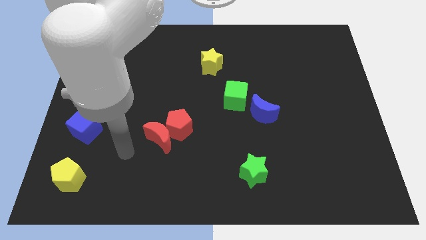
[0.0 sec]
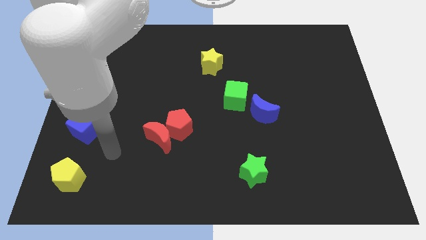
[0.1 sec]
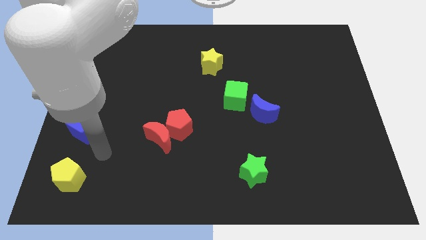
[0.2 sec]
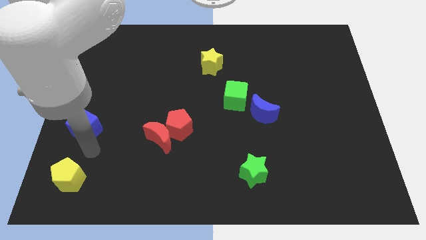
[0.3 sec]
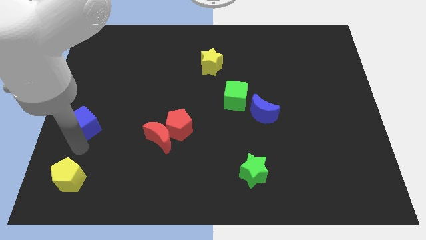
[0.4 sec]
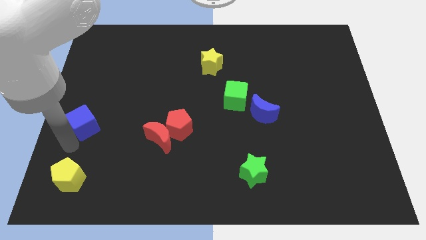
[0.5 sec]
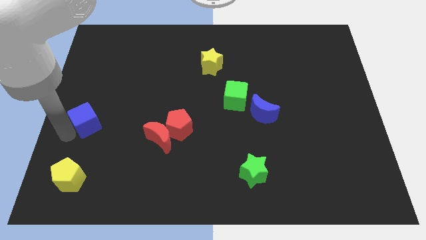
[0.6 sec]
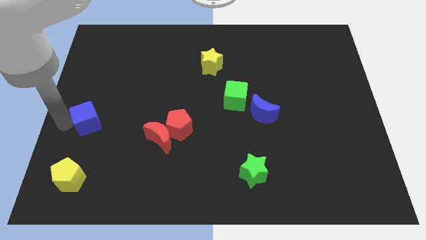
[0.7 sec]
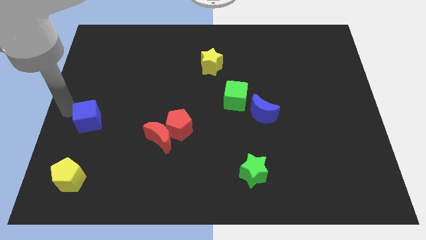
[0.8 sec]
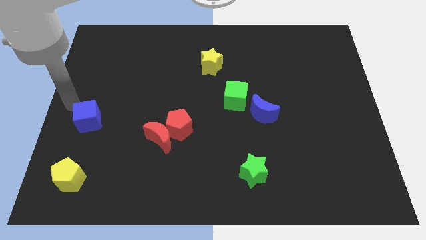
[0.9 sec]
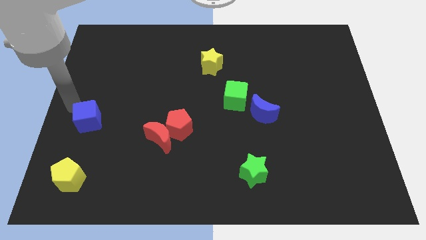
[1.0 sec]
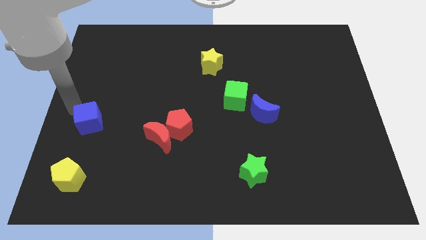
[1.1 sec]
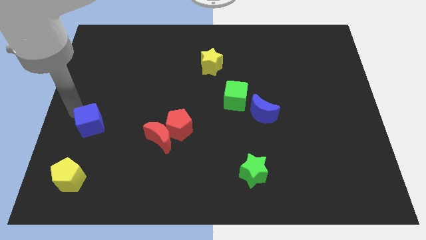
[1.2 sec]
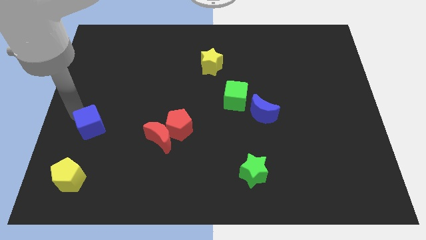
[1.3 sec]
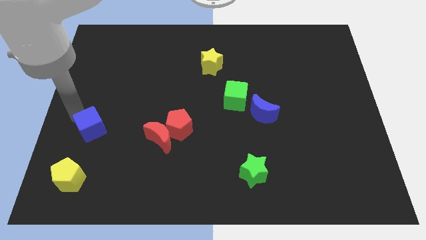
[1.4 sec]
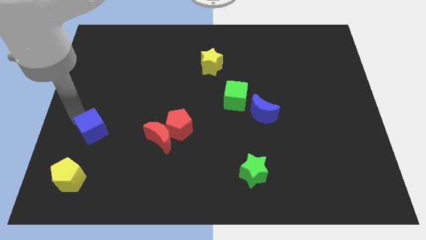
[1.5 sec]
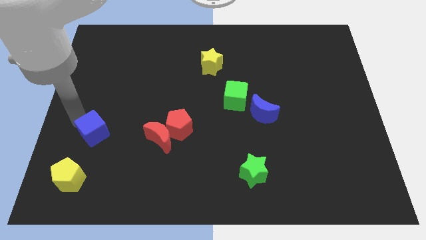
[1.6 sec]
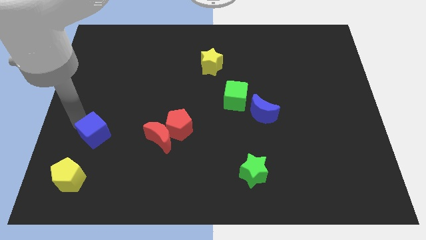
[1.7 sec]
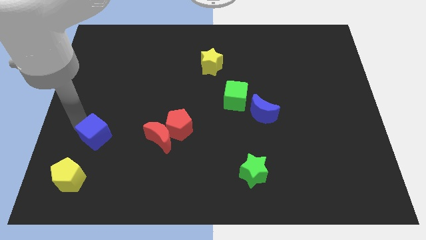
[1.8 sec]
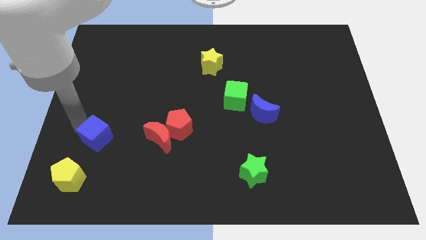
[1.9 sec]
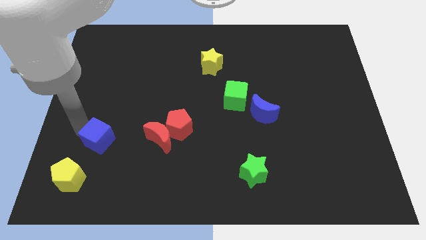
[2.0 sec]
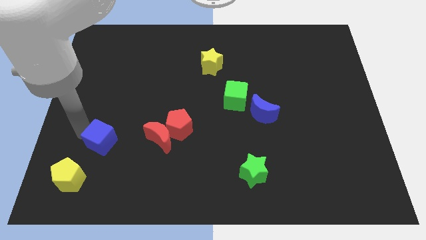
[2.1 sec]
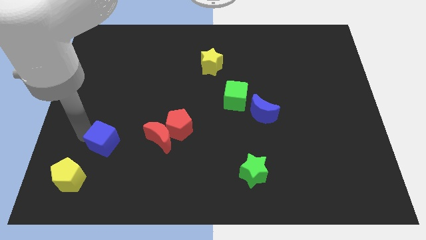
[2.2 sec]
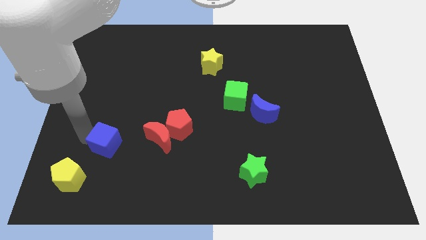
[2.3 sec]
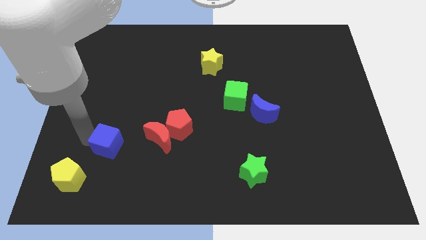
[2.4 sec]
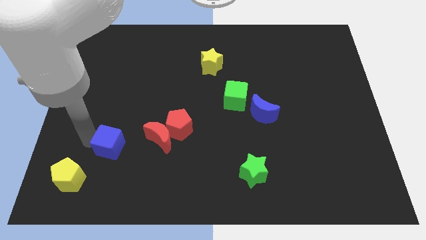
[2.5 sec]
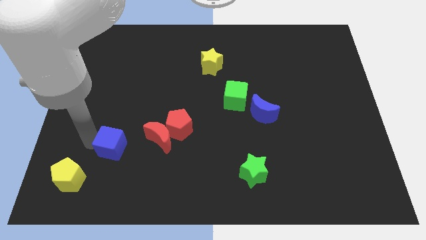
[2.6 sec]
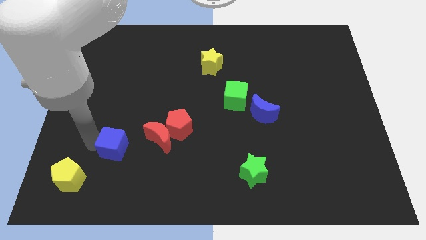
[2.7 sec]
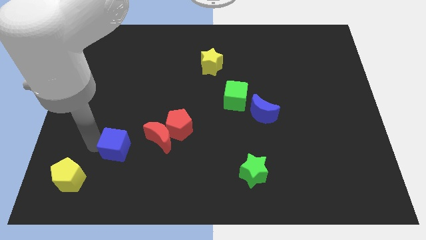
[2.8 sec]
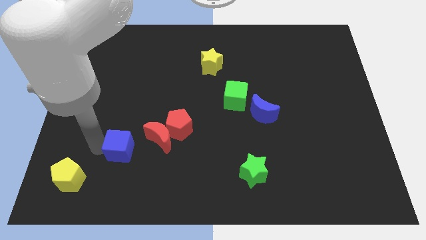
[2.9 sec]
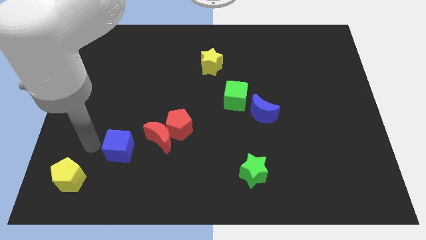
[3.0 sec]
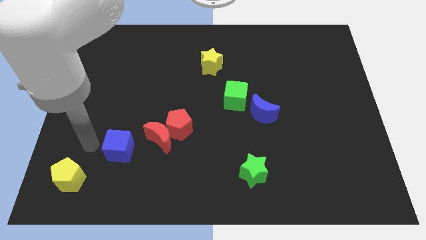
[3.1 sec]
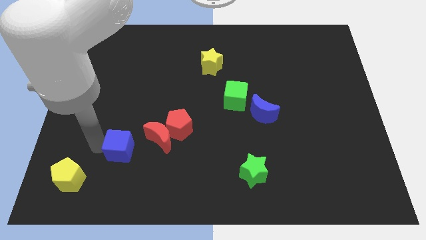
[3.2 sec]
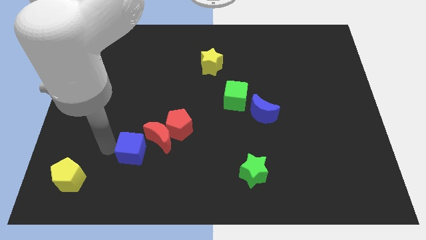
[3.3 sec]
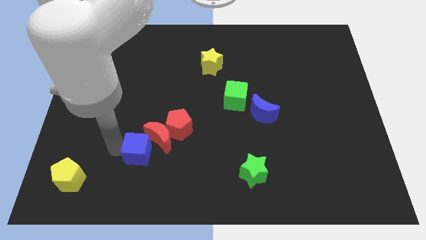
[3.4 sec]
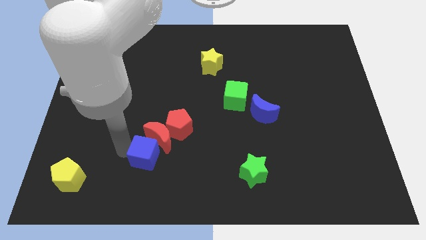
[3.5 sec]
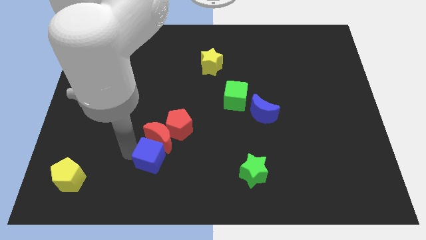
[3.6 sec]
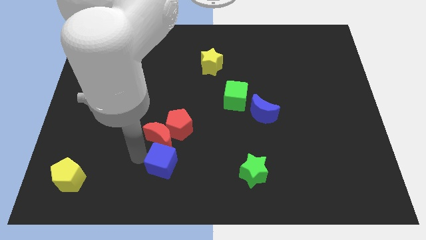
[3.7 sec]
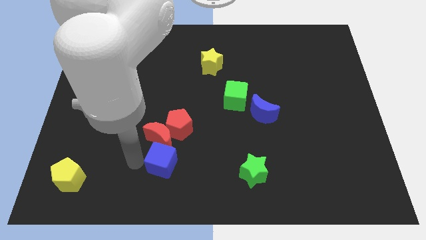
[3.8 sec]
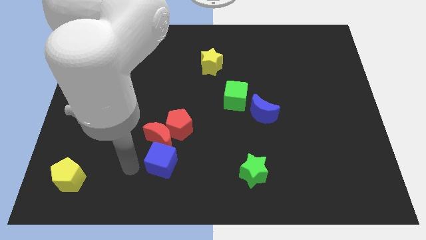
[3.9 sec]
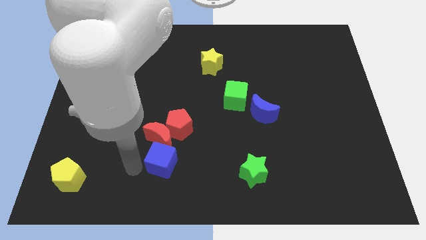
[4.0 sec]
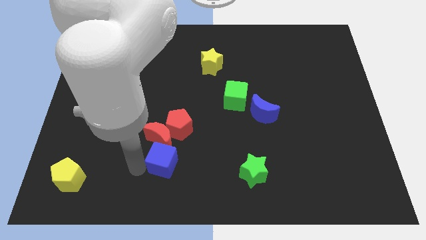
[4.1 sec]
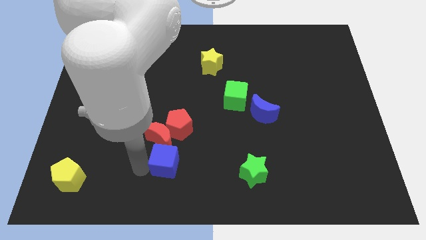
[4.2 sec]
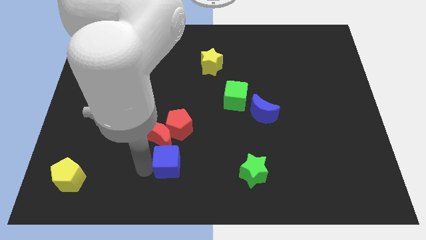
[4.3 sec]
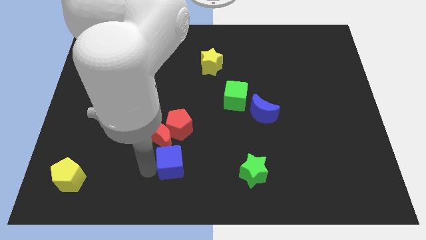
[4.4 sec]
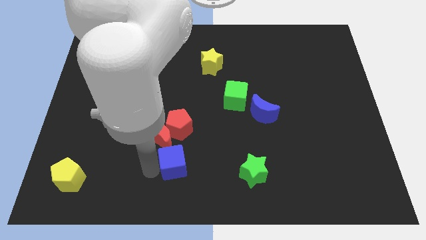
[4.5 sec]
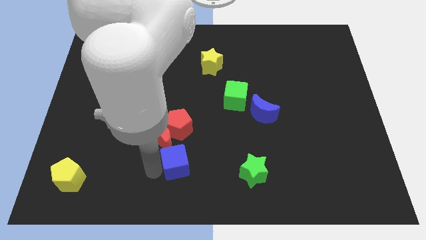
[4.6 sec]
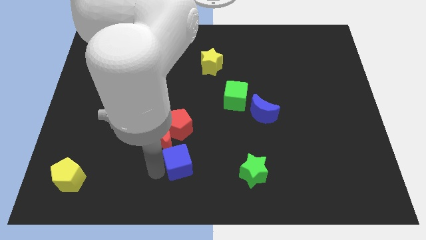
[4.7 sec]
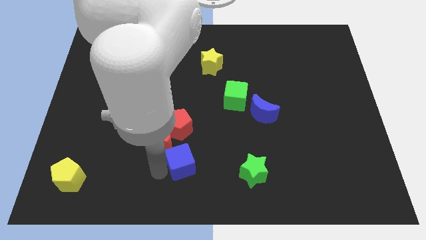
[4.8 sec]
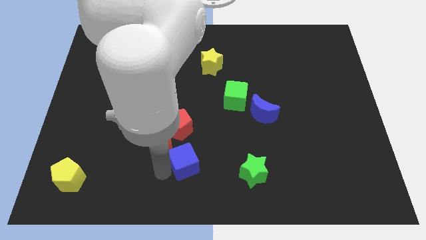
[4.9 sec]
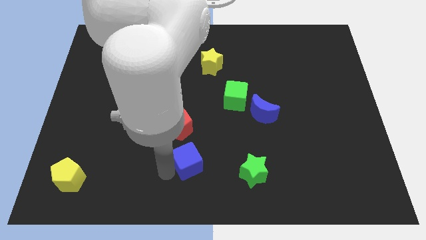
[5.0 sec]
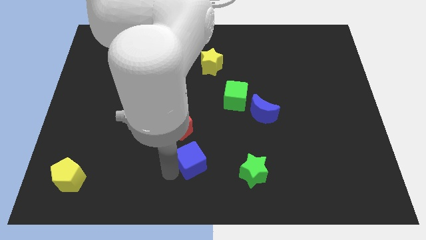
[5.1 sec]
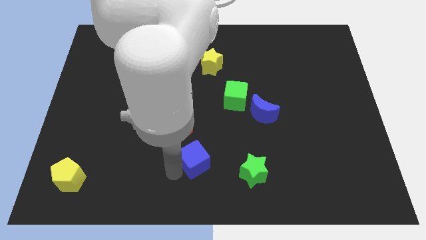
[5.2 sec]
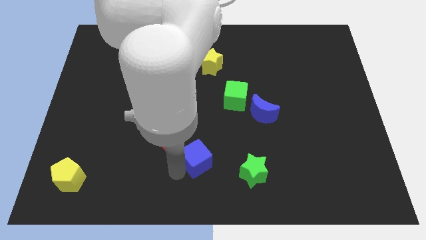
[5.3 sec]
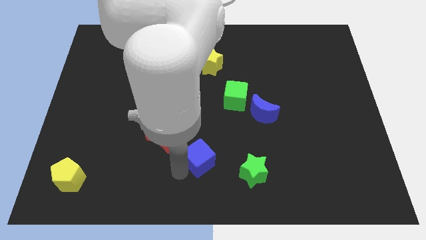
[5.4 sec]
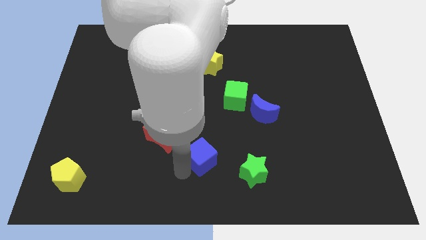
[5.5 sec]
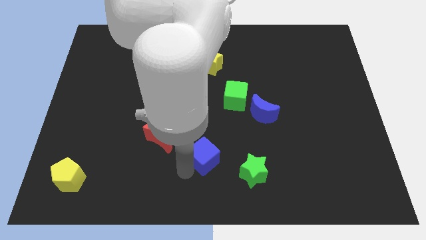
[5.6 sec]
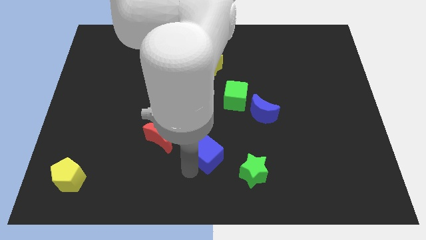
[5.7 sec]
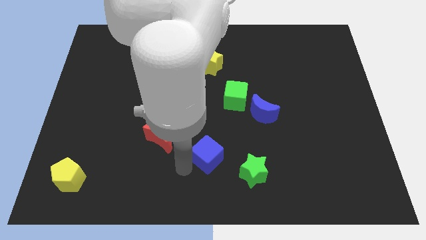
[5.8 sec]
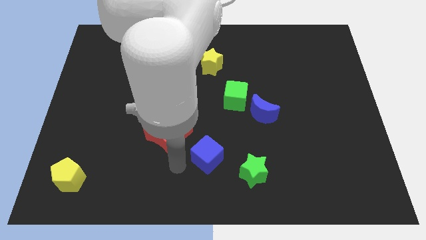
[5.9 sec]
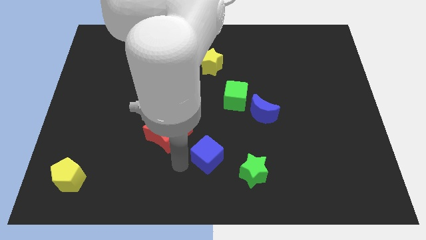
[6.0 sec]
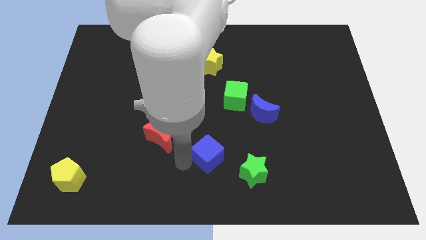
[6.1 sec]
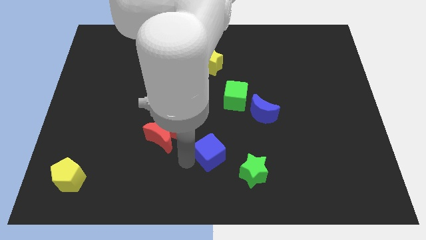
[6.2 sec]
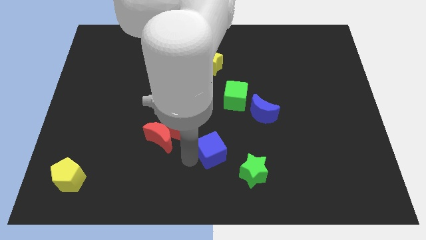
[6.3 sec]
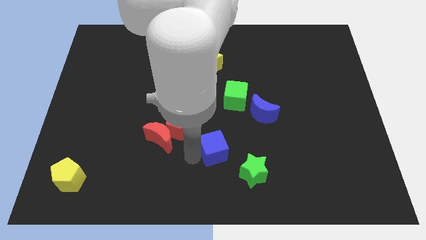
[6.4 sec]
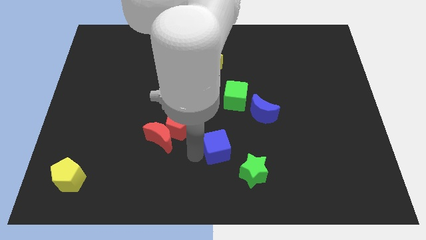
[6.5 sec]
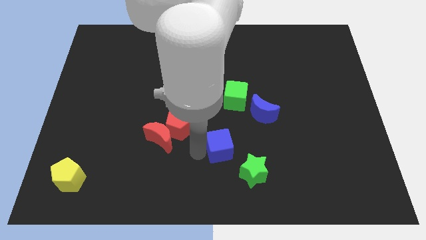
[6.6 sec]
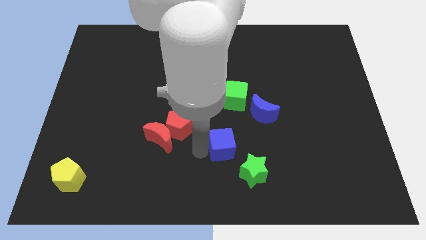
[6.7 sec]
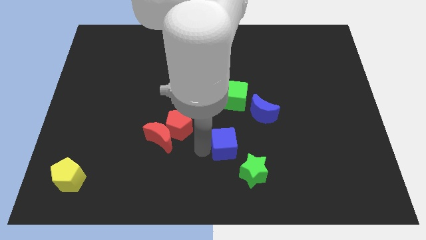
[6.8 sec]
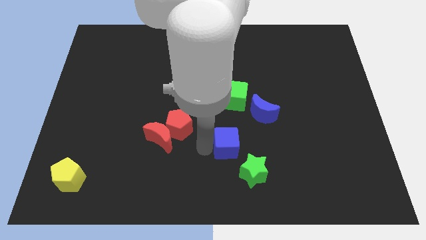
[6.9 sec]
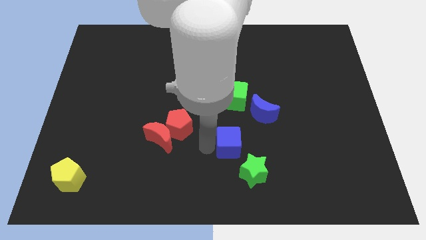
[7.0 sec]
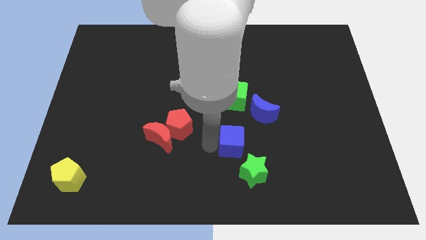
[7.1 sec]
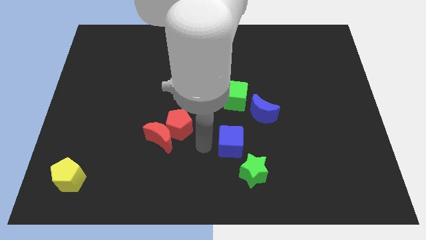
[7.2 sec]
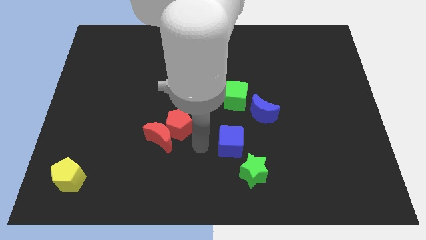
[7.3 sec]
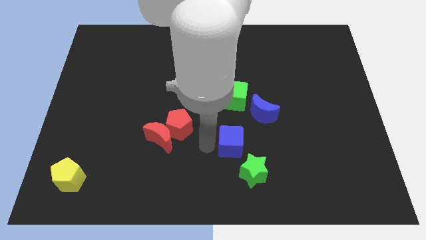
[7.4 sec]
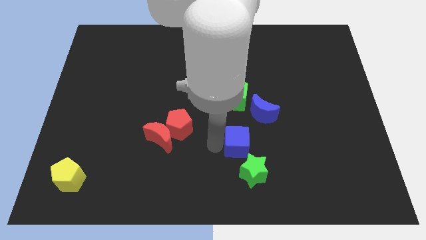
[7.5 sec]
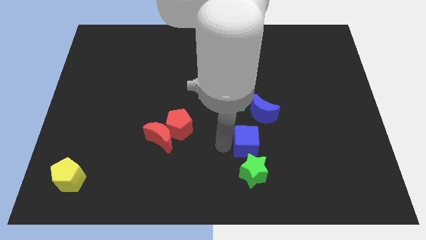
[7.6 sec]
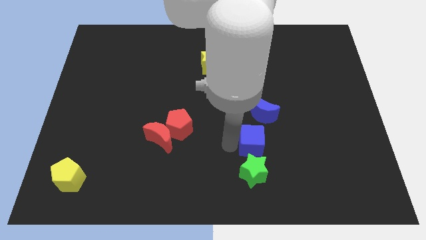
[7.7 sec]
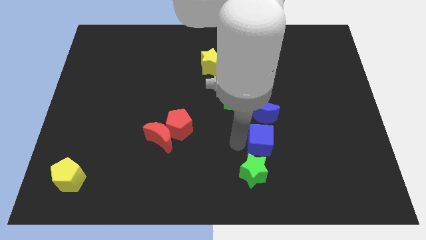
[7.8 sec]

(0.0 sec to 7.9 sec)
put the blue cube to the top right side of the green star
